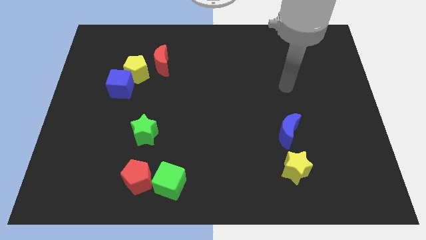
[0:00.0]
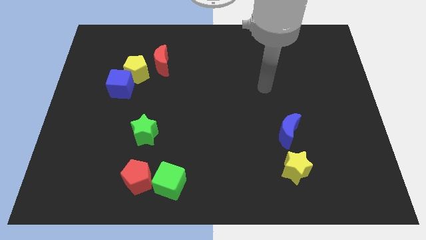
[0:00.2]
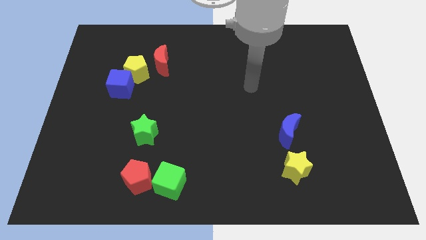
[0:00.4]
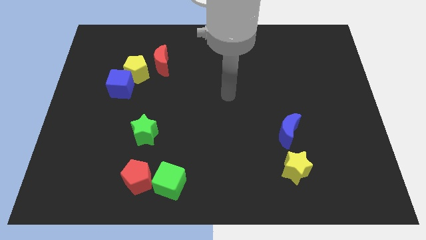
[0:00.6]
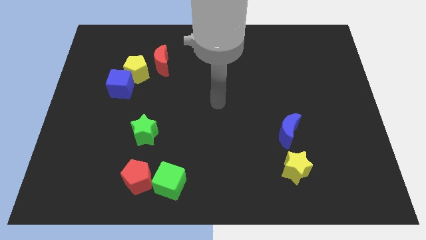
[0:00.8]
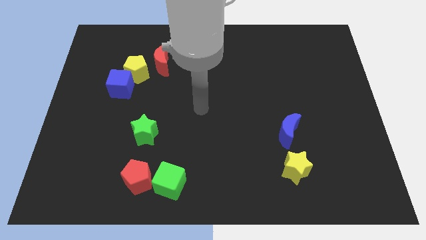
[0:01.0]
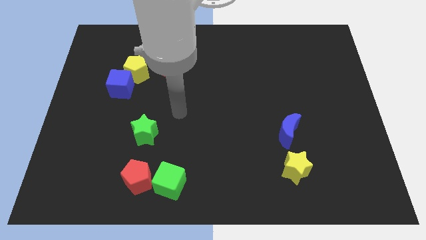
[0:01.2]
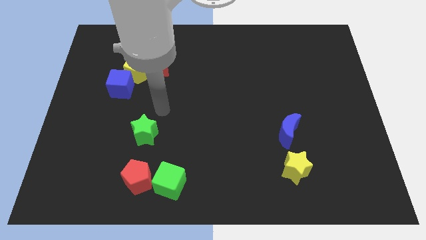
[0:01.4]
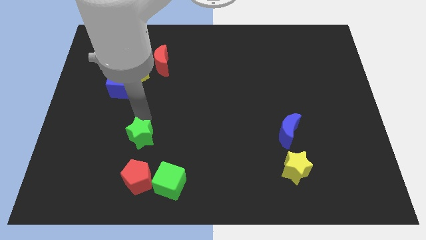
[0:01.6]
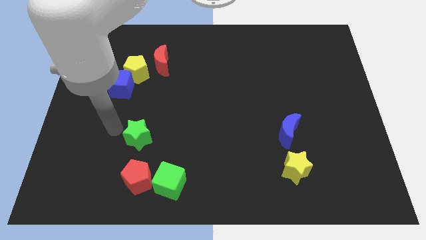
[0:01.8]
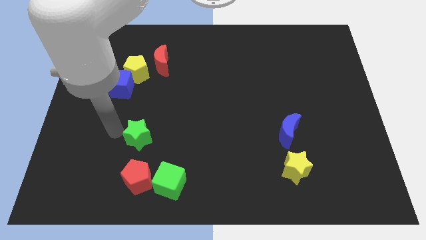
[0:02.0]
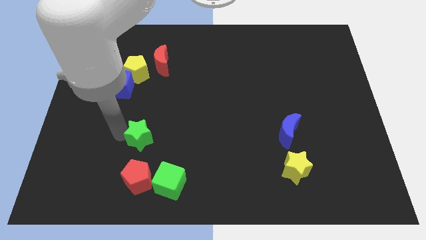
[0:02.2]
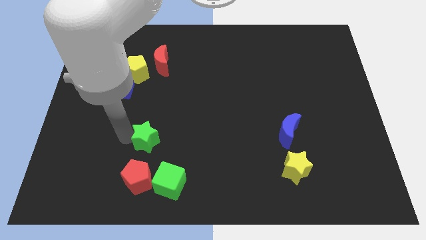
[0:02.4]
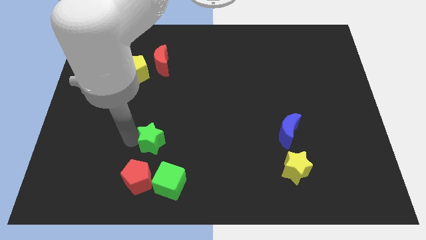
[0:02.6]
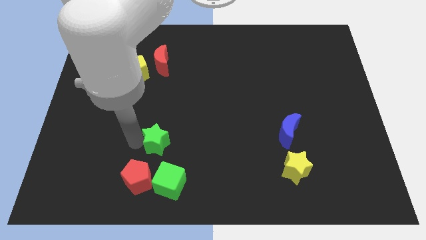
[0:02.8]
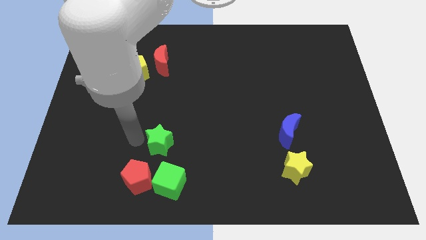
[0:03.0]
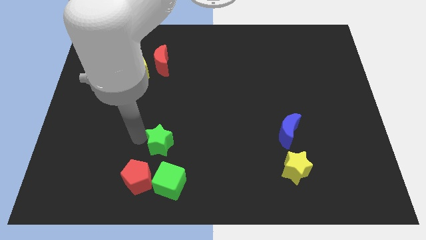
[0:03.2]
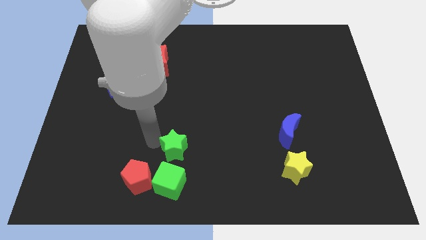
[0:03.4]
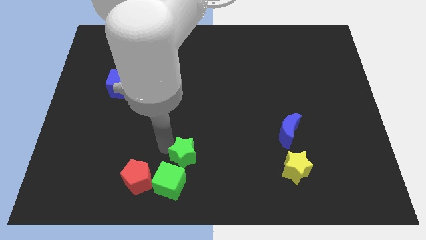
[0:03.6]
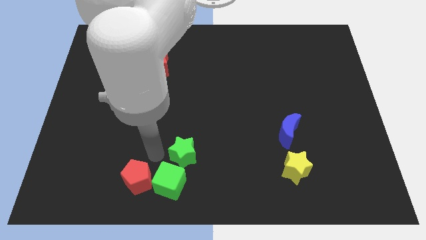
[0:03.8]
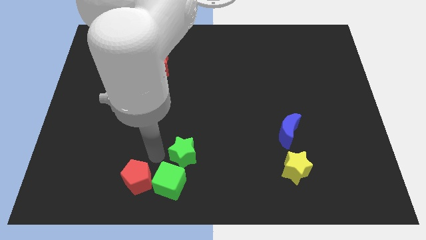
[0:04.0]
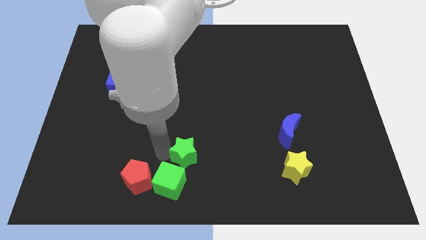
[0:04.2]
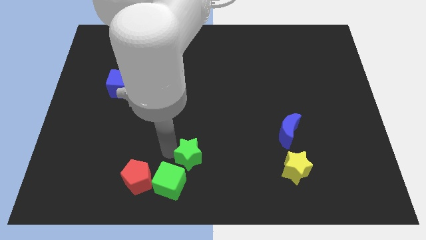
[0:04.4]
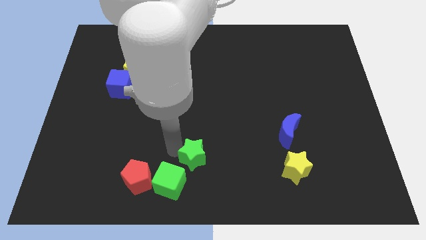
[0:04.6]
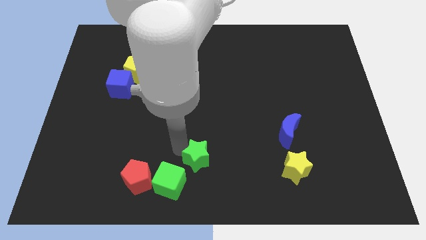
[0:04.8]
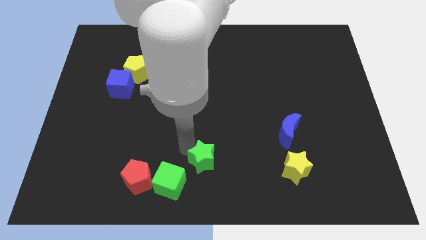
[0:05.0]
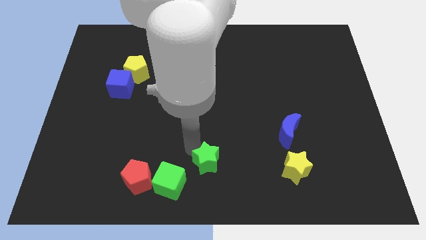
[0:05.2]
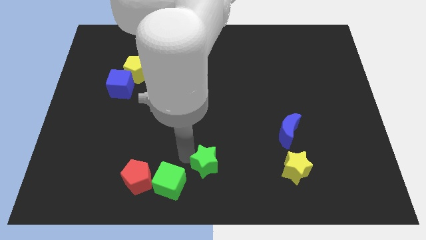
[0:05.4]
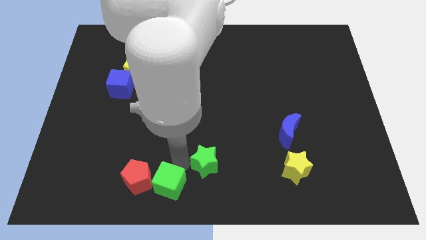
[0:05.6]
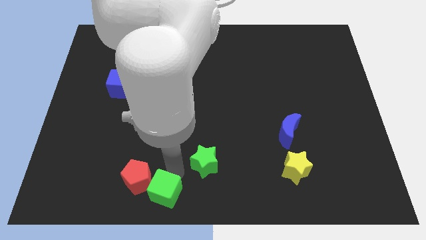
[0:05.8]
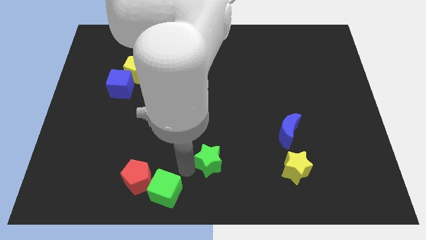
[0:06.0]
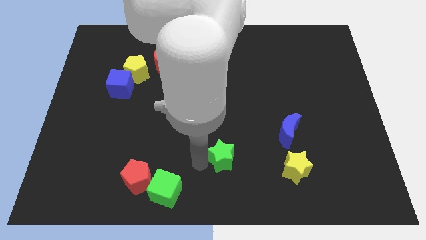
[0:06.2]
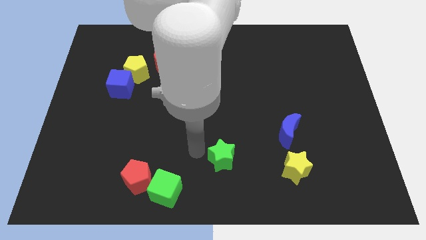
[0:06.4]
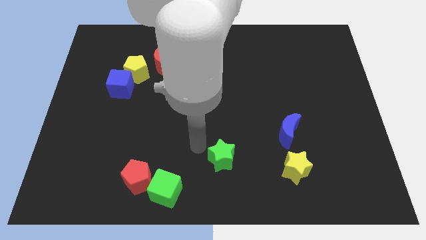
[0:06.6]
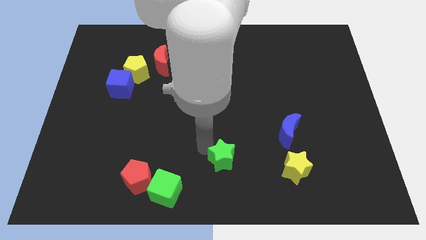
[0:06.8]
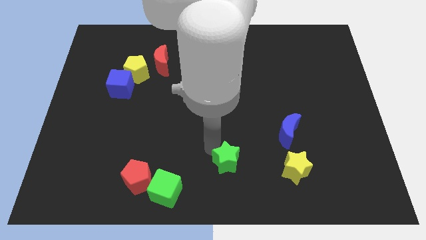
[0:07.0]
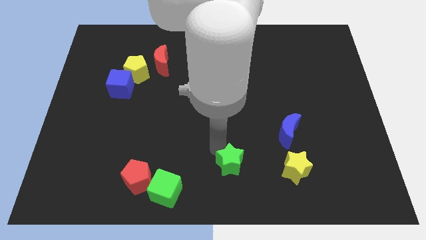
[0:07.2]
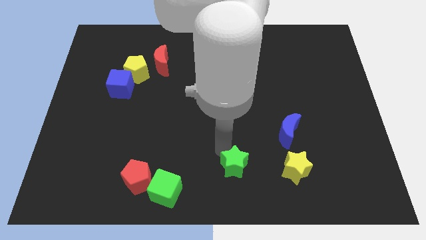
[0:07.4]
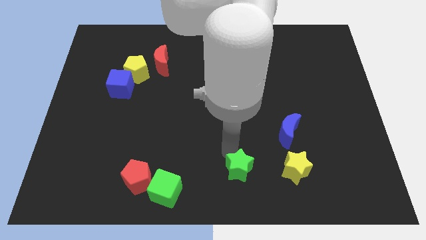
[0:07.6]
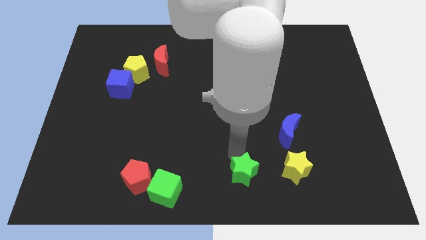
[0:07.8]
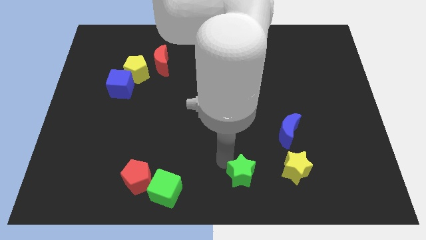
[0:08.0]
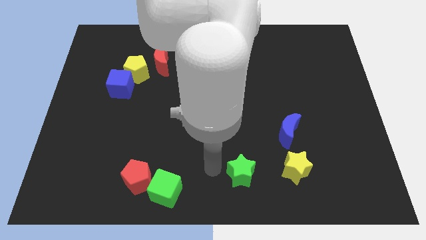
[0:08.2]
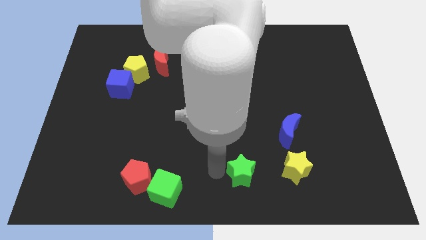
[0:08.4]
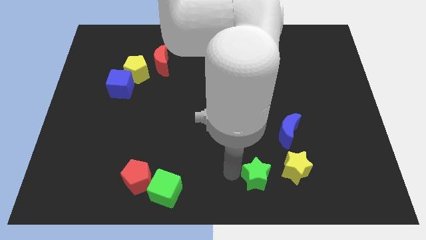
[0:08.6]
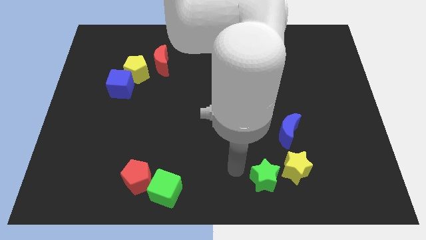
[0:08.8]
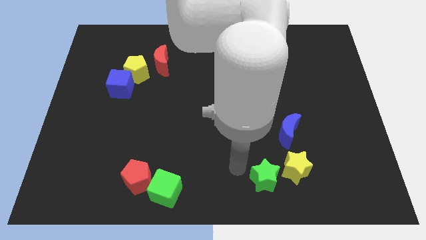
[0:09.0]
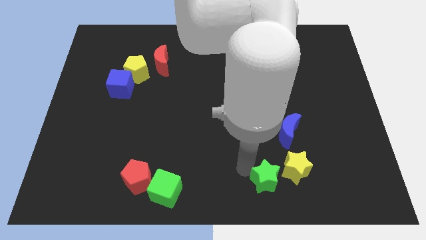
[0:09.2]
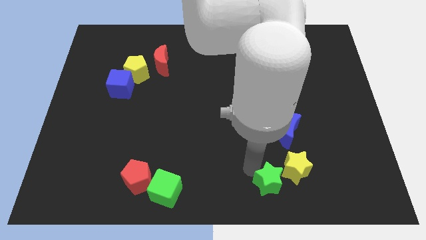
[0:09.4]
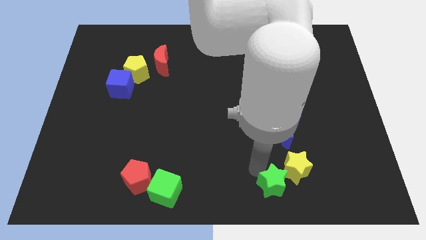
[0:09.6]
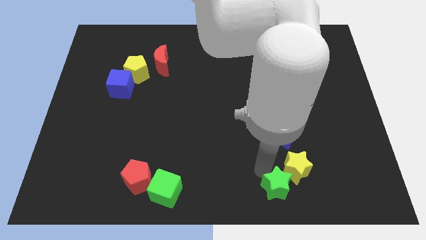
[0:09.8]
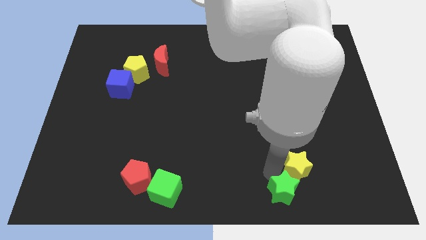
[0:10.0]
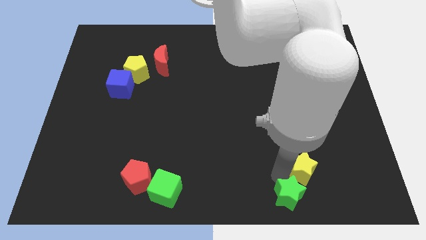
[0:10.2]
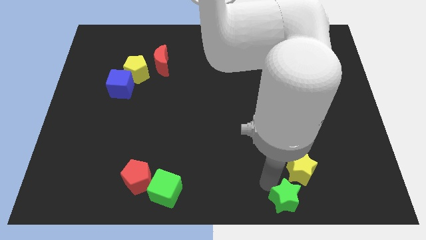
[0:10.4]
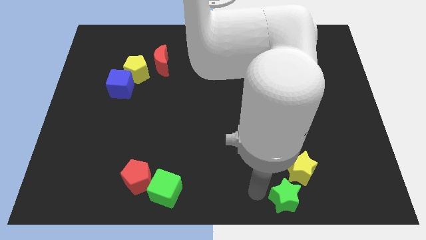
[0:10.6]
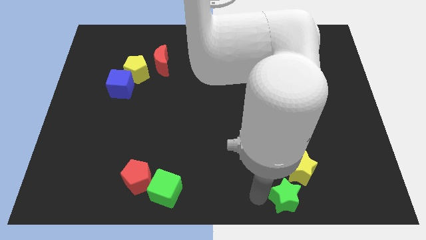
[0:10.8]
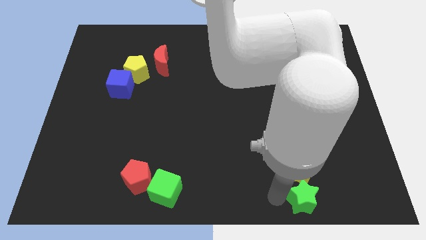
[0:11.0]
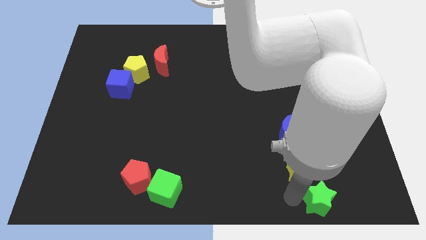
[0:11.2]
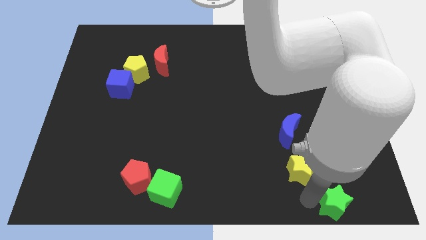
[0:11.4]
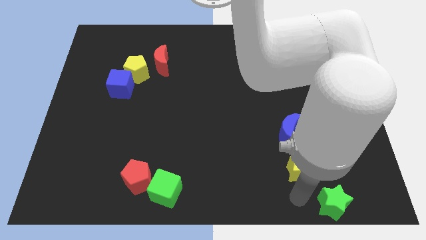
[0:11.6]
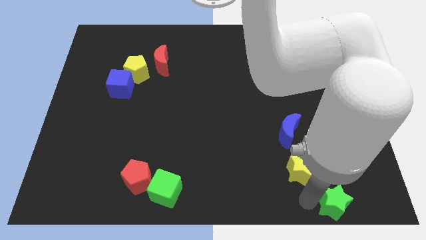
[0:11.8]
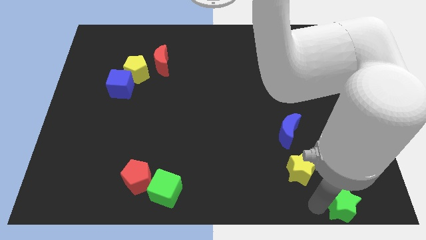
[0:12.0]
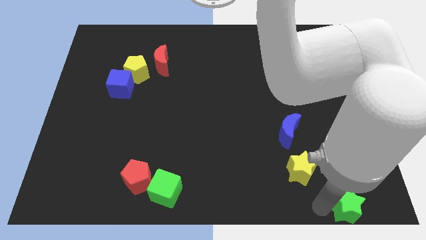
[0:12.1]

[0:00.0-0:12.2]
slide the green star to the bottom right of the board
